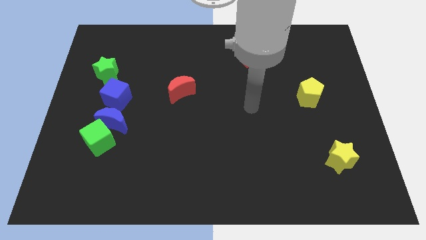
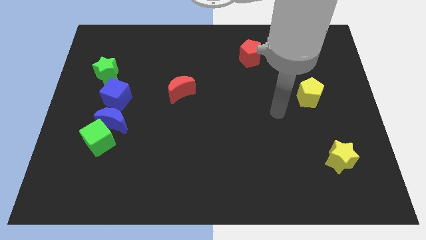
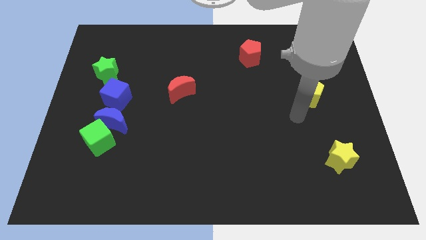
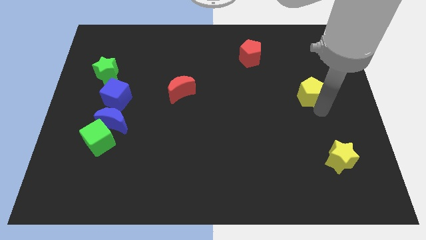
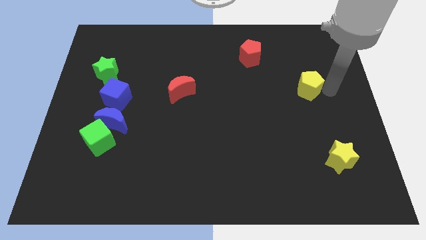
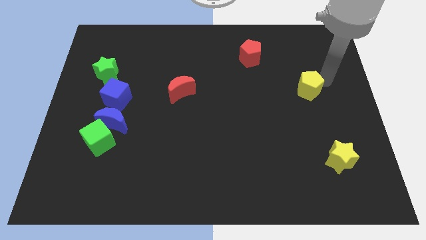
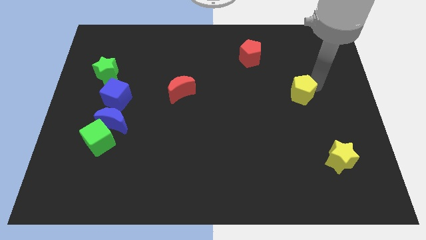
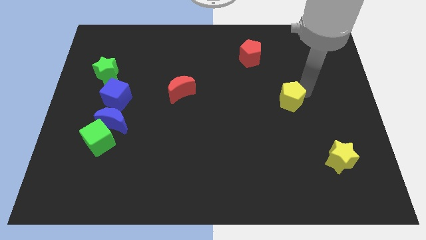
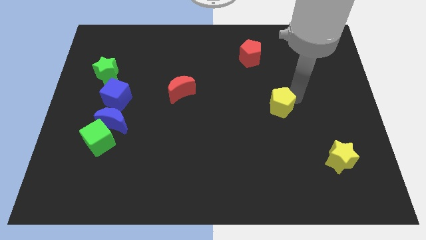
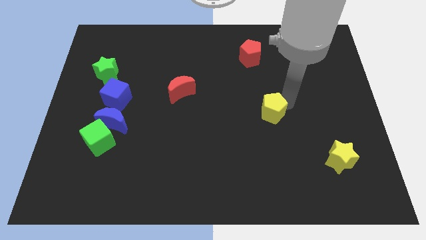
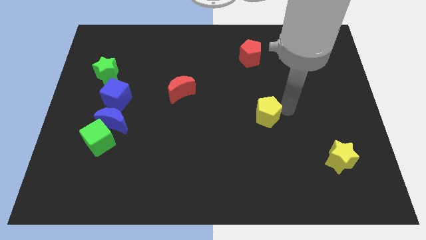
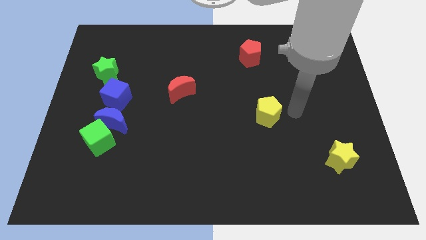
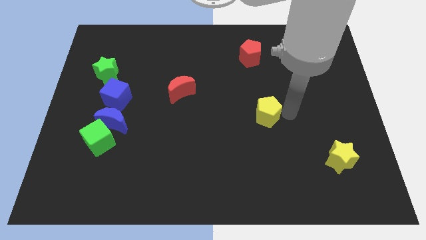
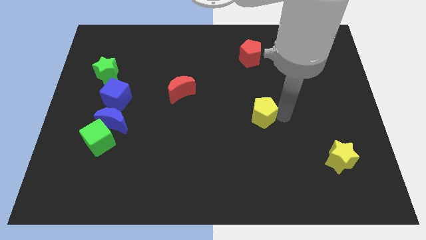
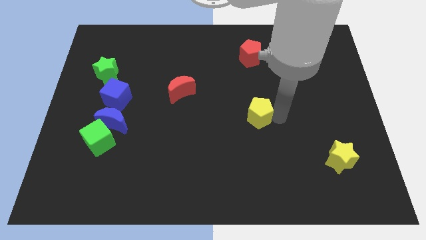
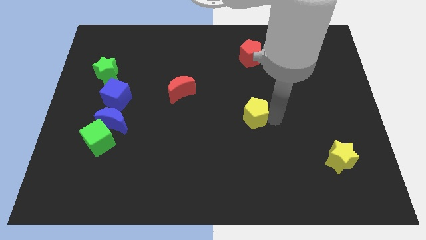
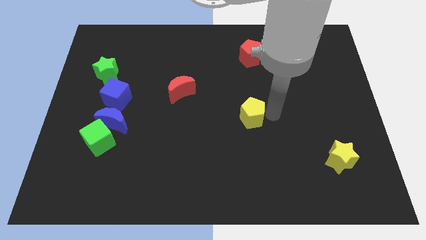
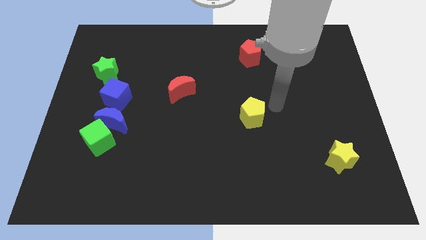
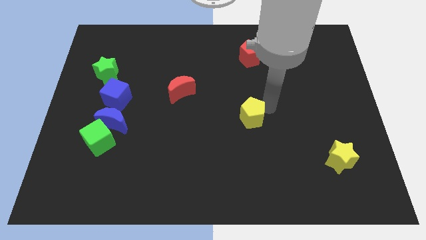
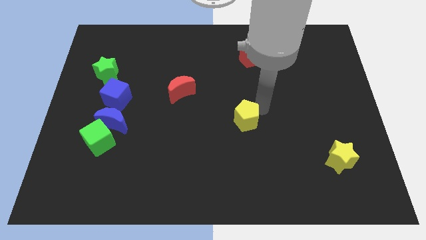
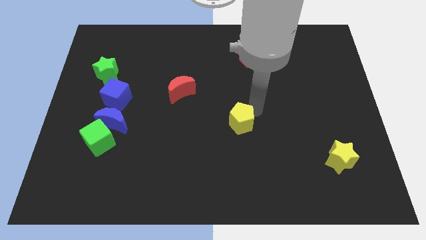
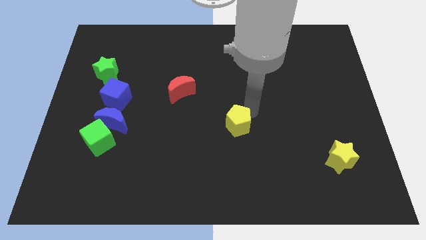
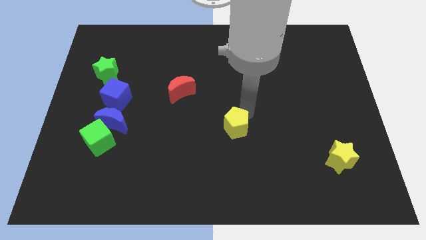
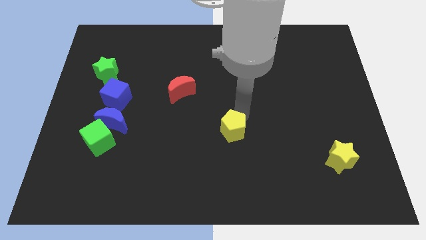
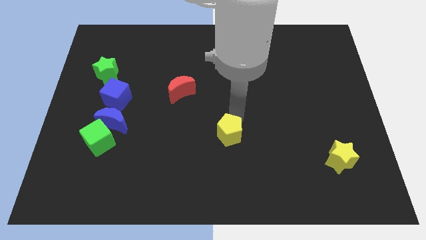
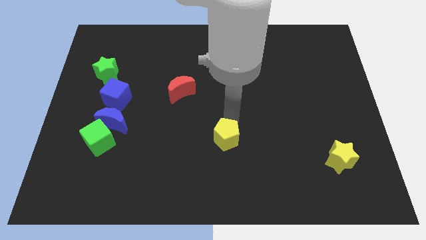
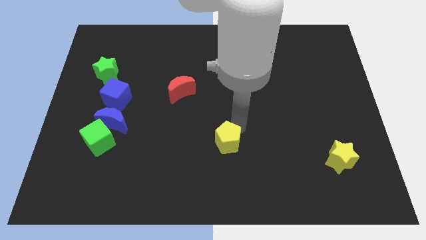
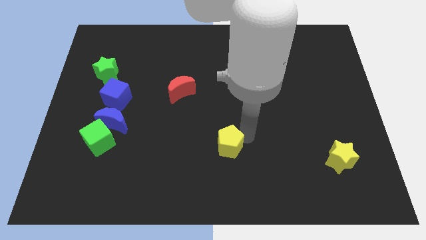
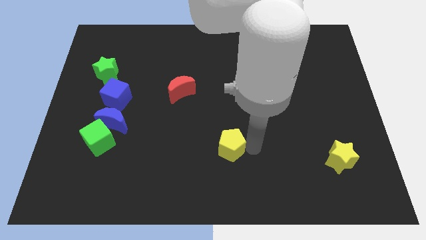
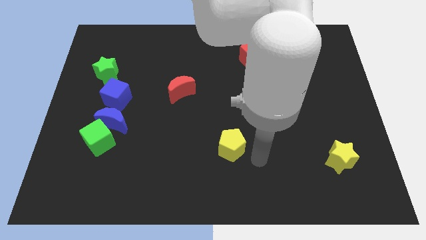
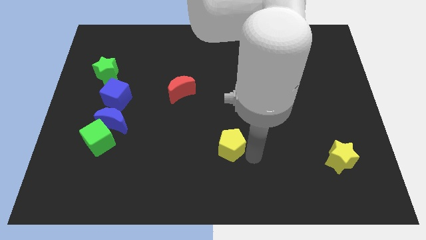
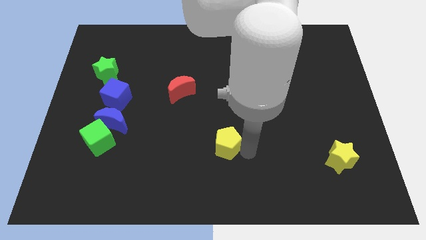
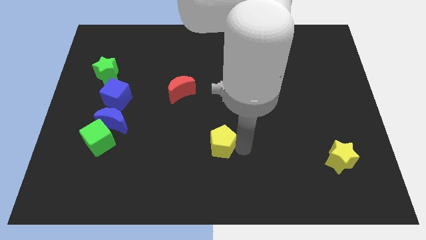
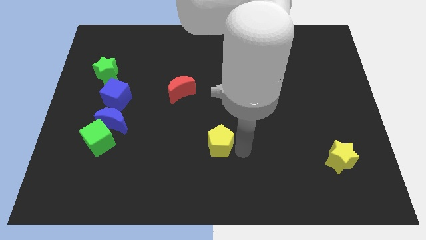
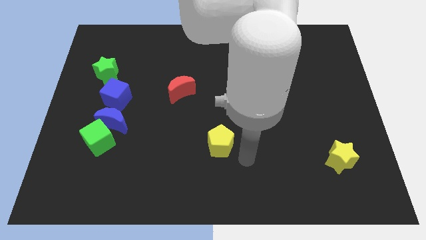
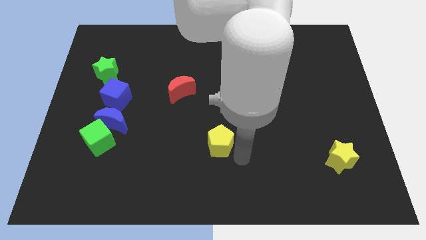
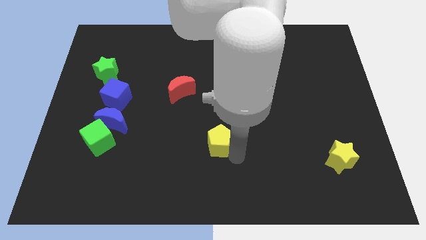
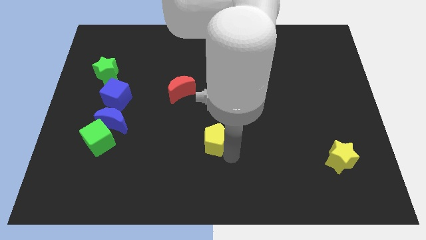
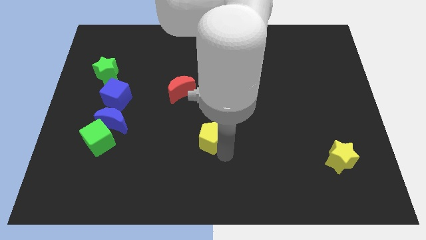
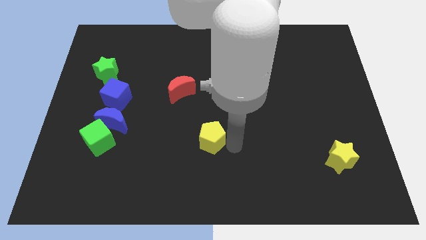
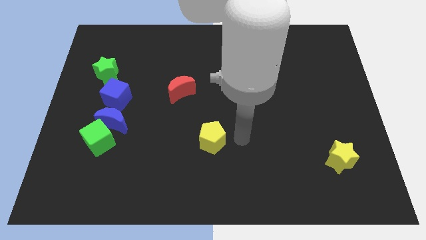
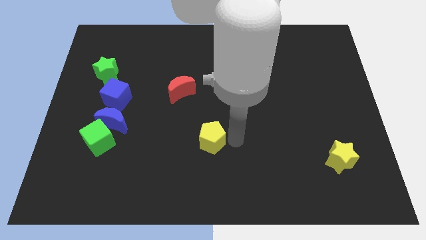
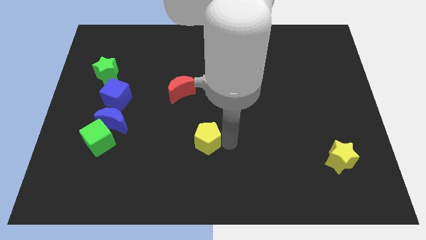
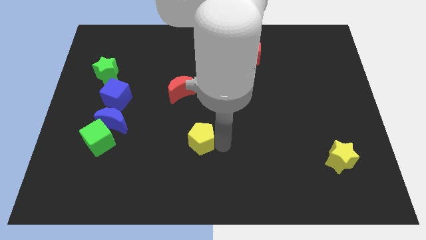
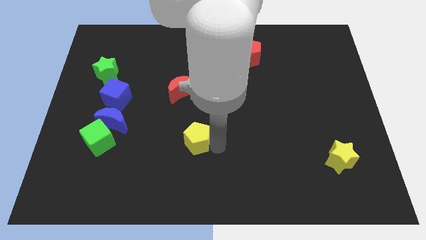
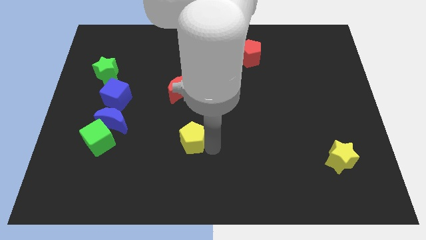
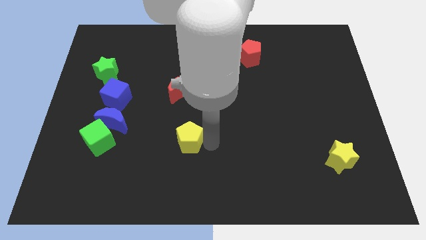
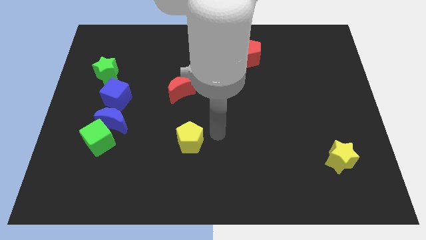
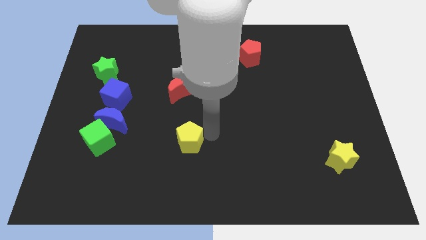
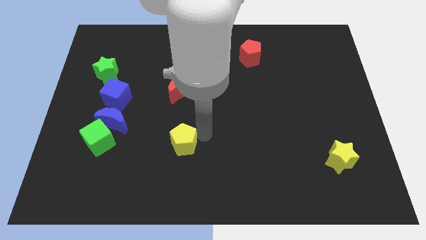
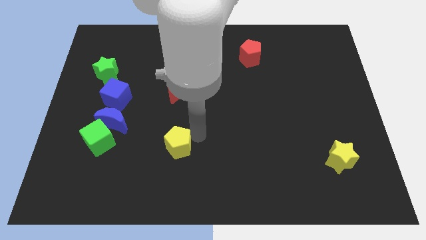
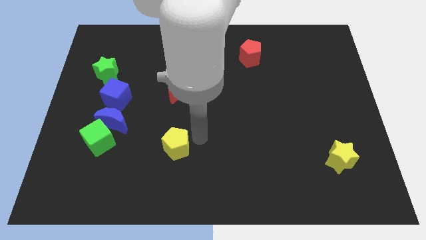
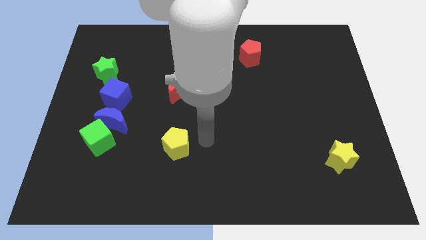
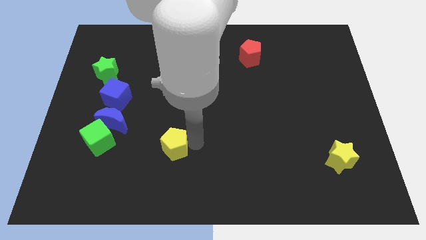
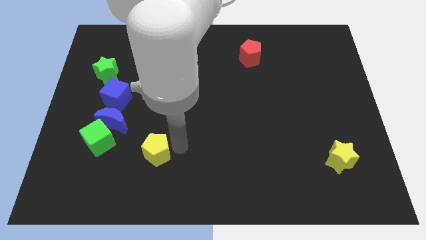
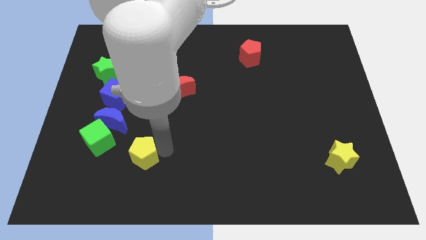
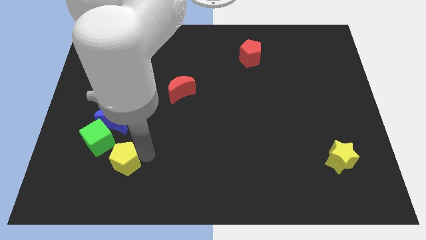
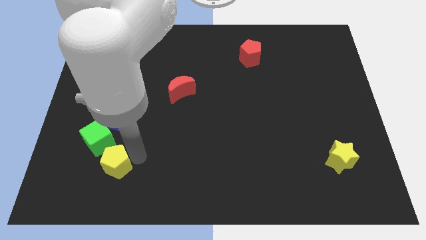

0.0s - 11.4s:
put the yellow pentagon to the bottom of the green cube

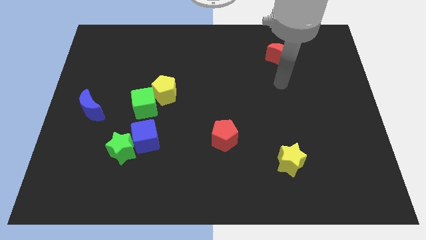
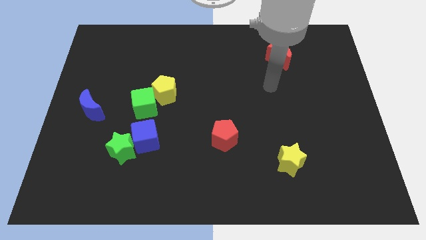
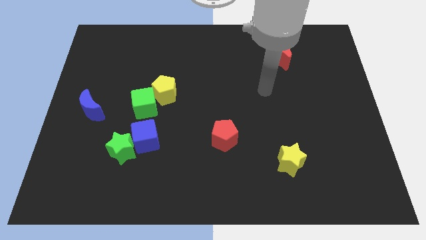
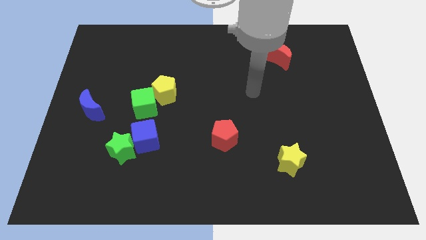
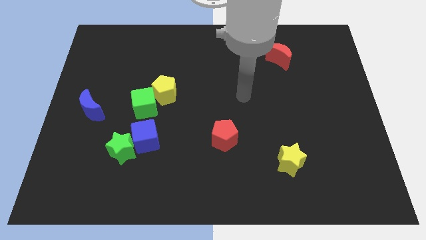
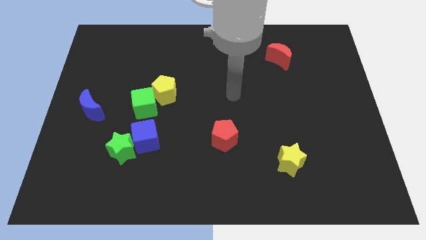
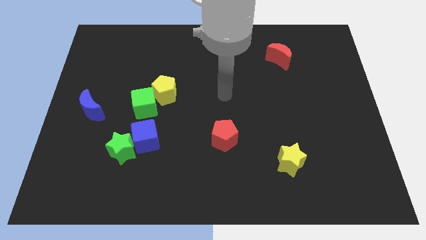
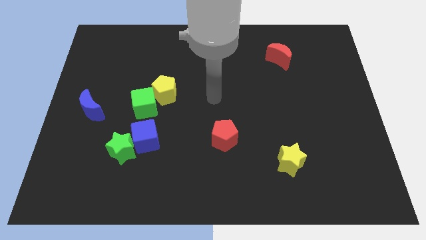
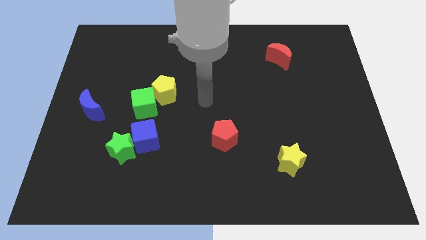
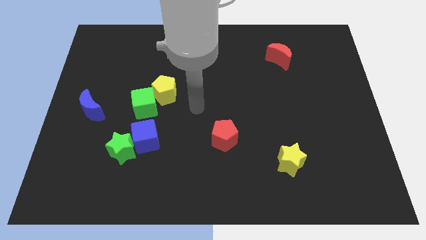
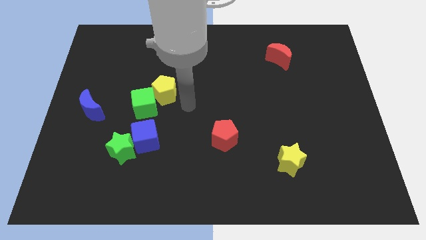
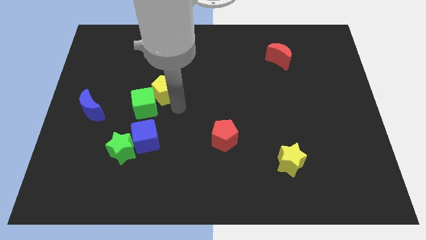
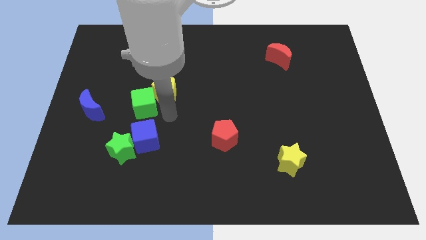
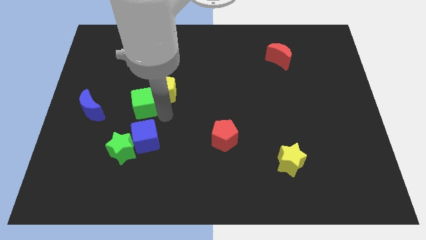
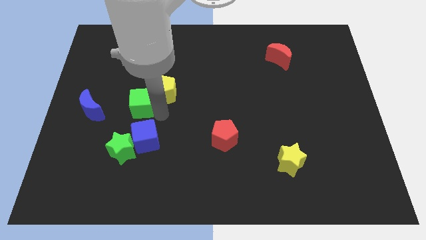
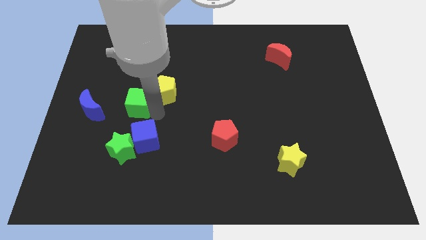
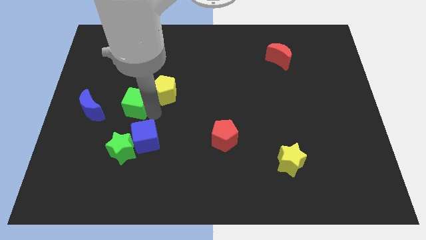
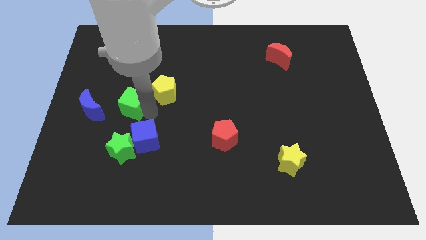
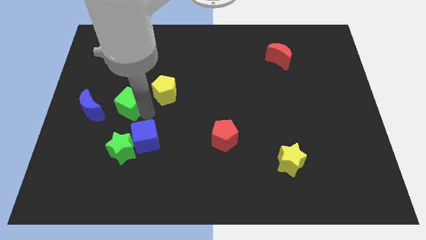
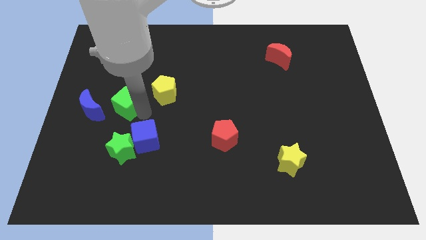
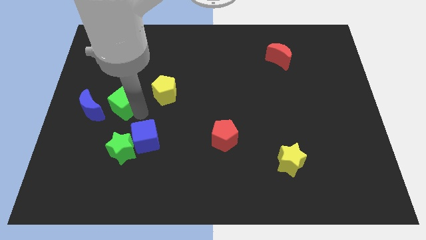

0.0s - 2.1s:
move the green cube to the top right of the blue moon
